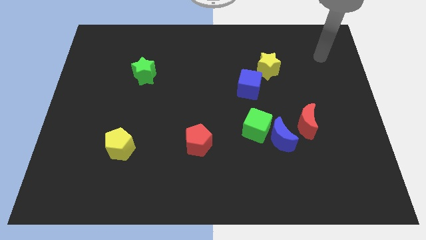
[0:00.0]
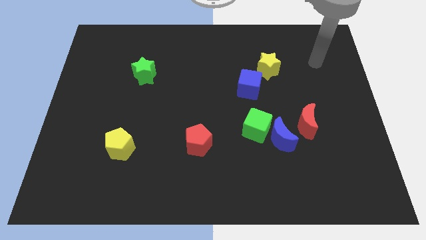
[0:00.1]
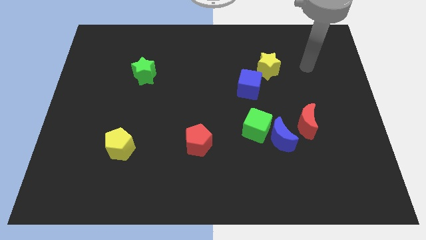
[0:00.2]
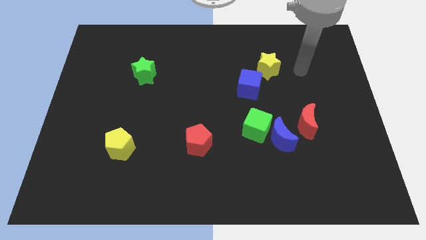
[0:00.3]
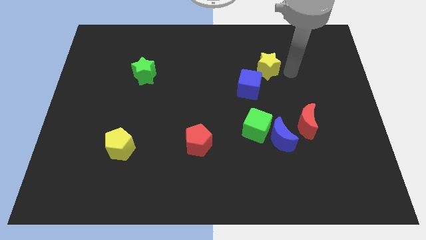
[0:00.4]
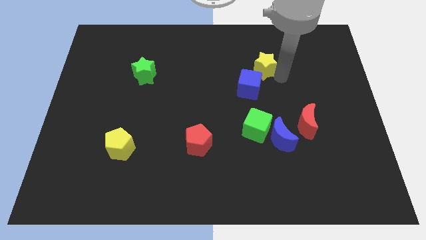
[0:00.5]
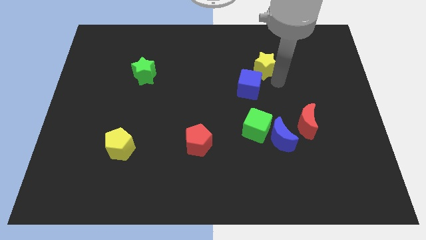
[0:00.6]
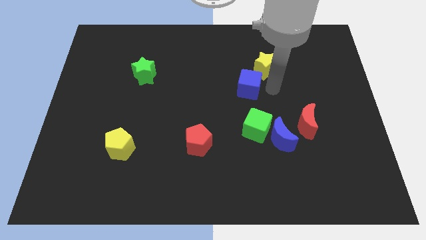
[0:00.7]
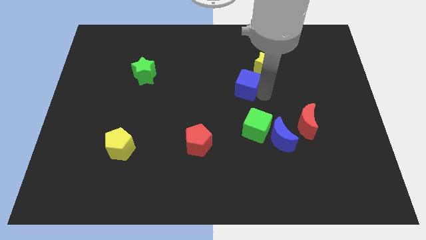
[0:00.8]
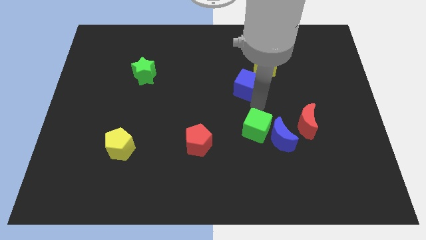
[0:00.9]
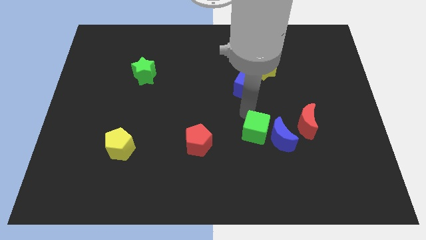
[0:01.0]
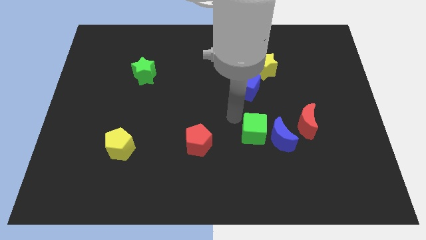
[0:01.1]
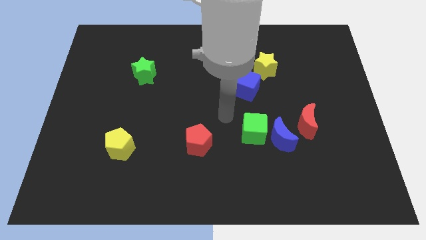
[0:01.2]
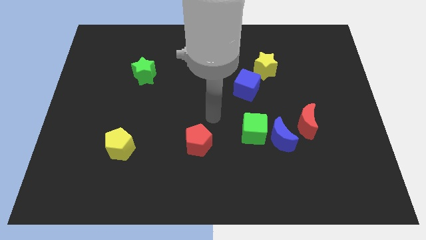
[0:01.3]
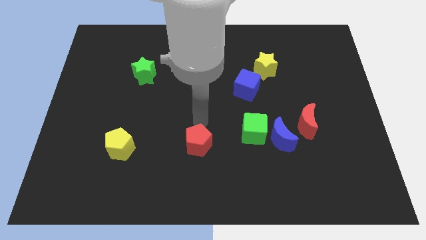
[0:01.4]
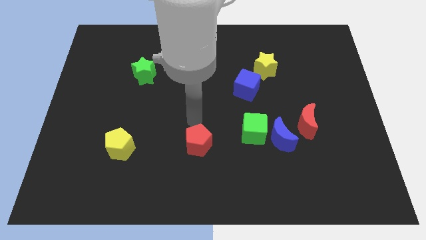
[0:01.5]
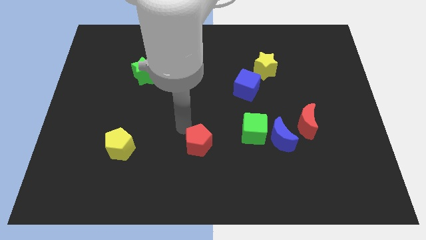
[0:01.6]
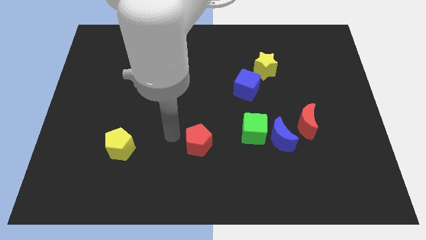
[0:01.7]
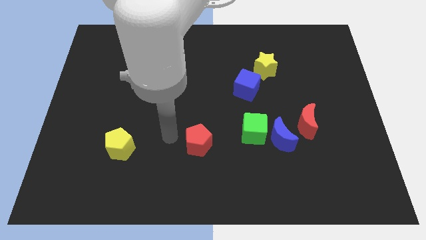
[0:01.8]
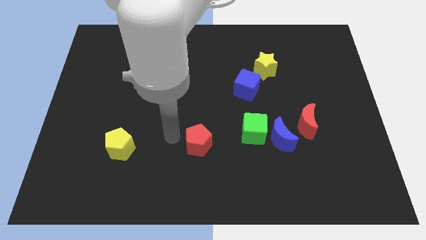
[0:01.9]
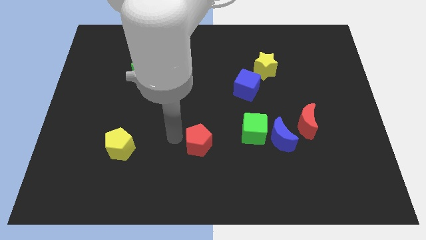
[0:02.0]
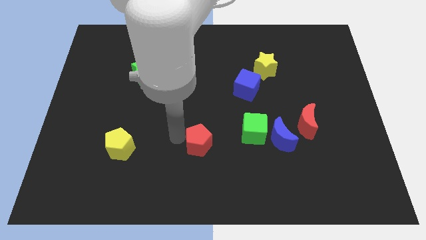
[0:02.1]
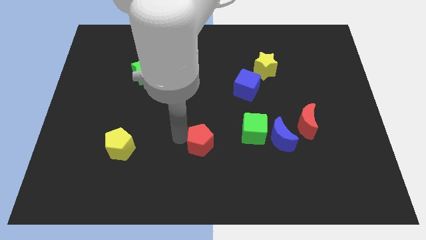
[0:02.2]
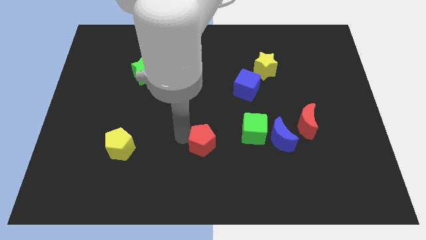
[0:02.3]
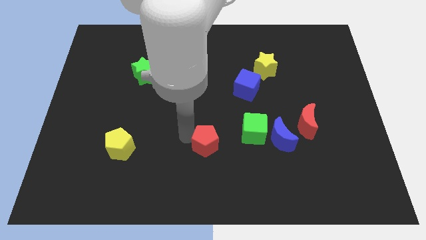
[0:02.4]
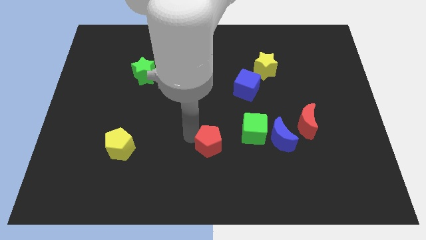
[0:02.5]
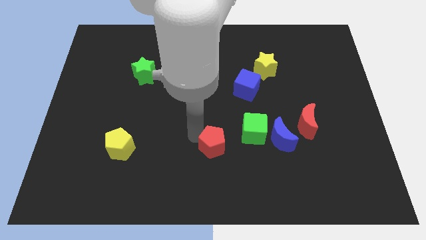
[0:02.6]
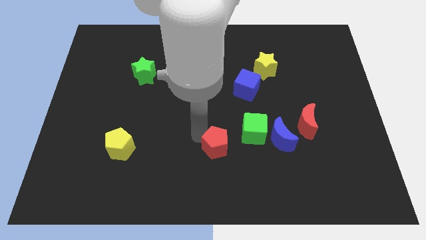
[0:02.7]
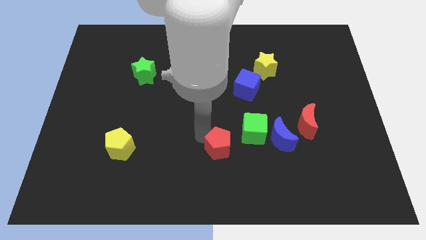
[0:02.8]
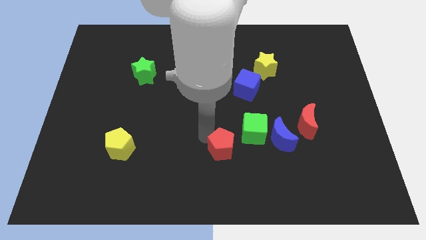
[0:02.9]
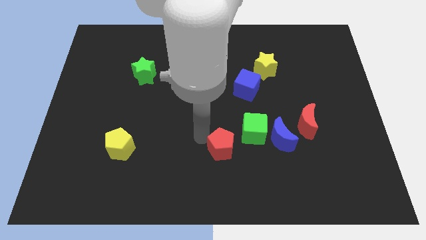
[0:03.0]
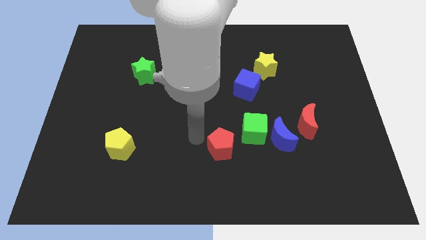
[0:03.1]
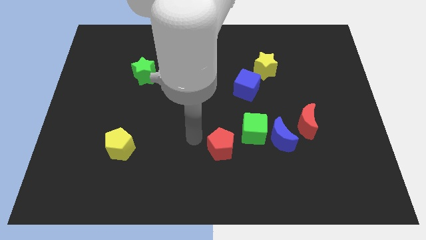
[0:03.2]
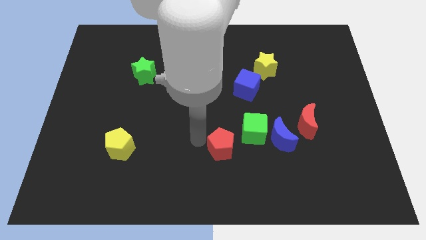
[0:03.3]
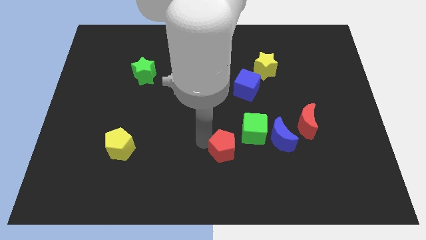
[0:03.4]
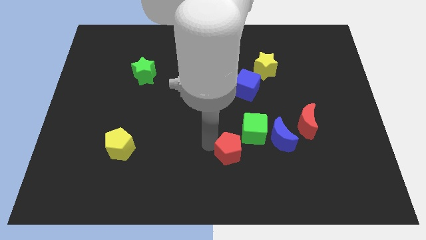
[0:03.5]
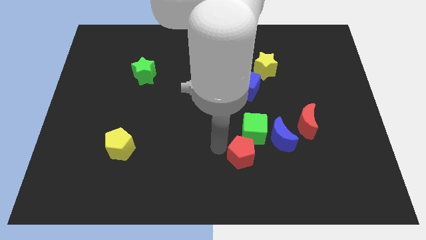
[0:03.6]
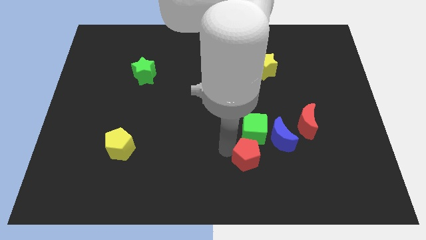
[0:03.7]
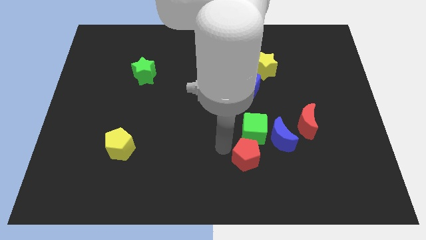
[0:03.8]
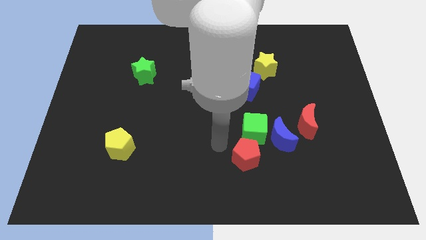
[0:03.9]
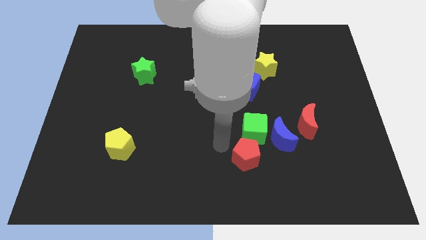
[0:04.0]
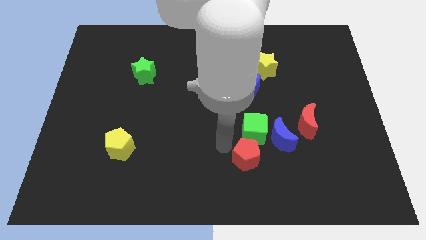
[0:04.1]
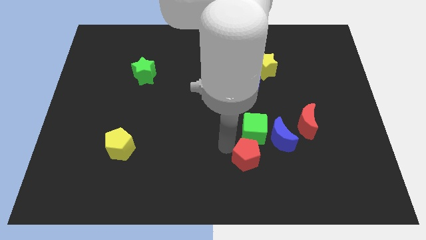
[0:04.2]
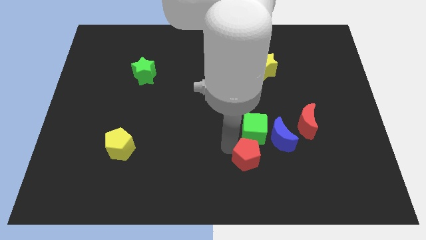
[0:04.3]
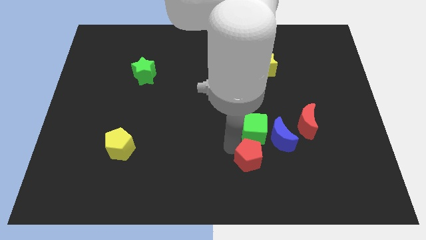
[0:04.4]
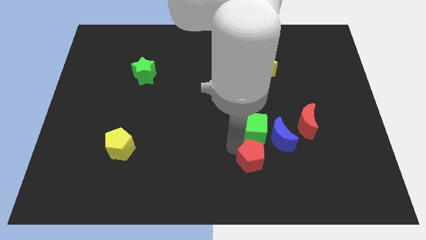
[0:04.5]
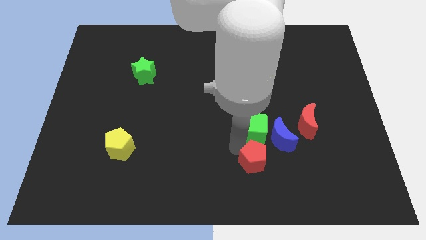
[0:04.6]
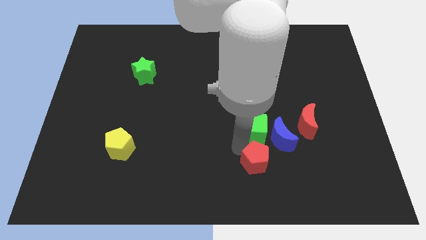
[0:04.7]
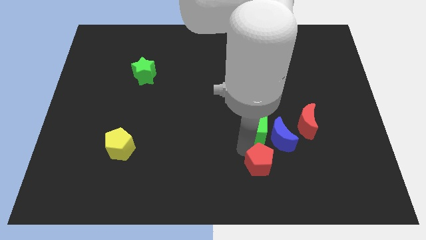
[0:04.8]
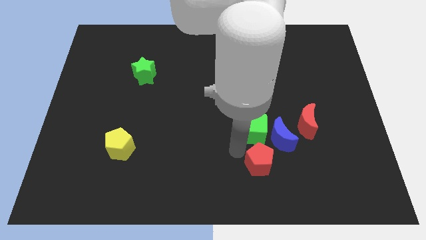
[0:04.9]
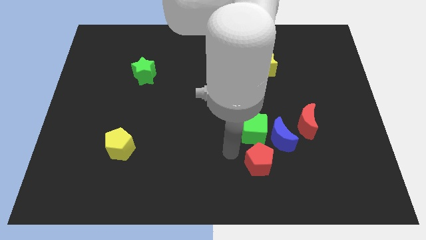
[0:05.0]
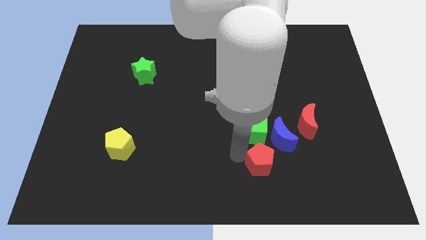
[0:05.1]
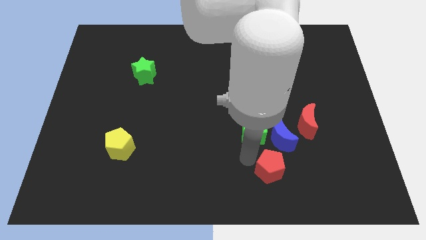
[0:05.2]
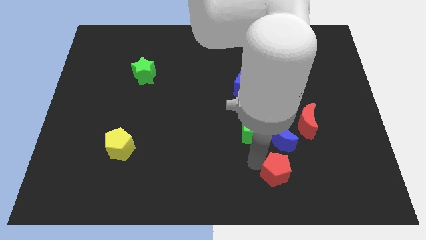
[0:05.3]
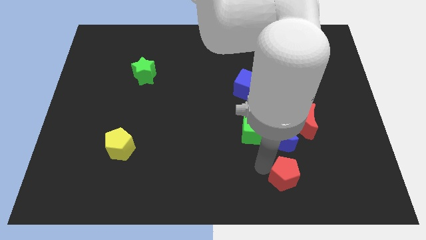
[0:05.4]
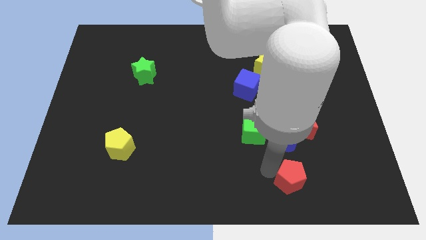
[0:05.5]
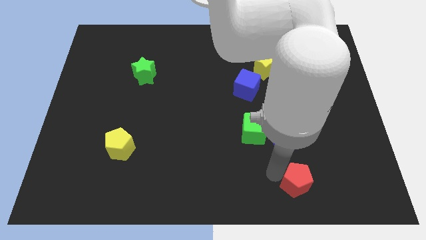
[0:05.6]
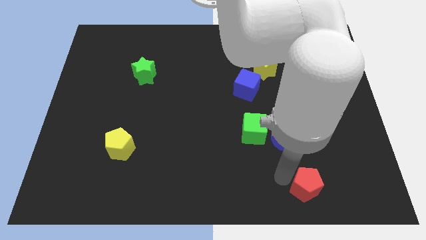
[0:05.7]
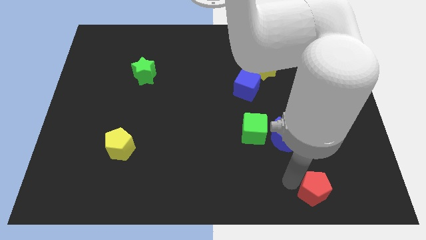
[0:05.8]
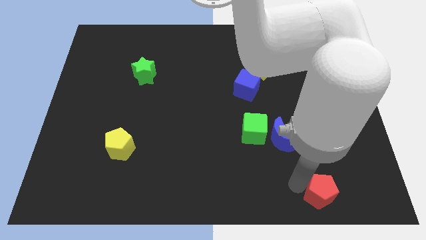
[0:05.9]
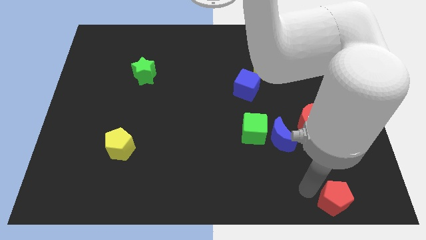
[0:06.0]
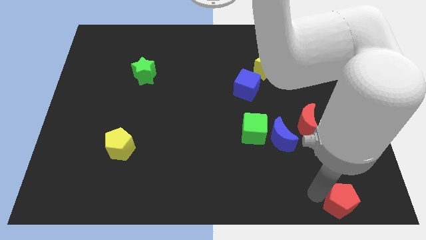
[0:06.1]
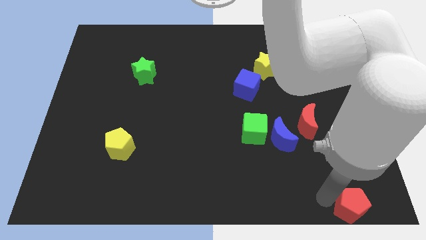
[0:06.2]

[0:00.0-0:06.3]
slide the red pentagon to the lower right corner
